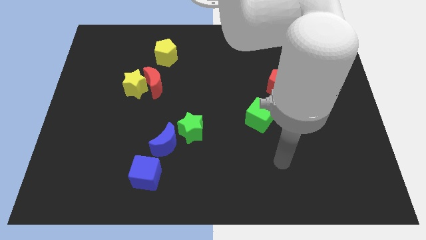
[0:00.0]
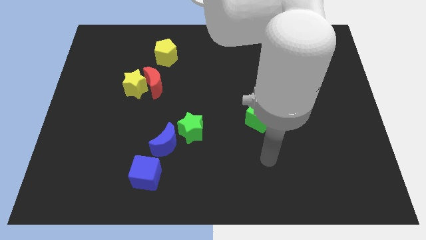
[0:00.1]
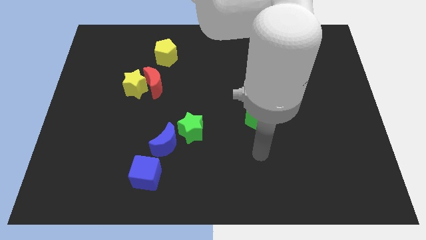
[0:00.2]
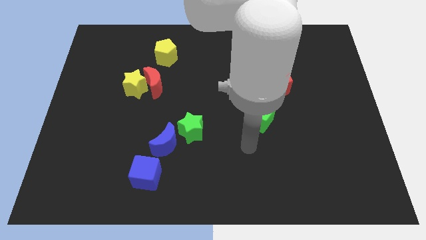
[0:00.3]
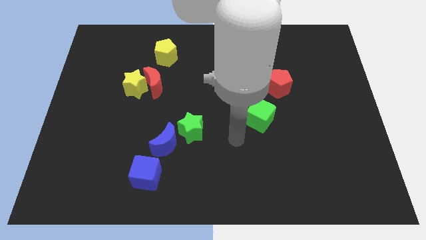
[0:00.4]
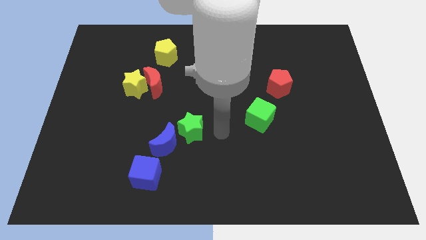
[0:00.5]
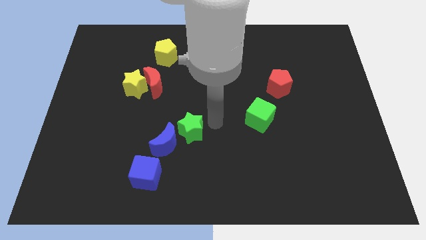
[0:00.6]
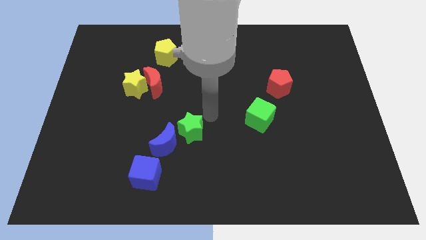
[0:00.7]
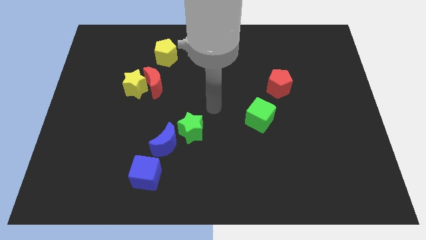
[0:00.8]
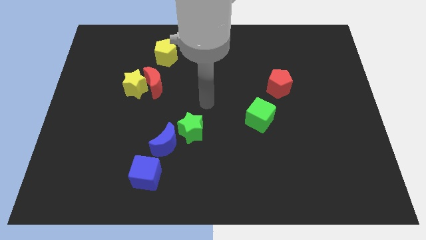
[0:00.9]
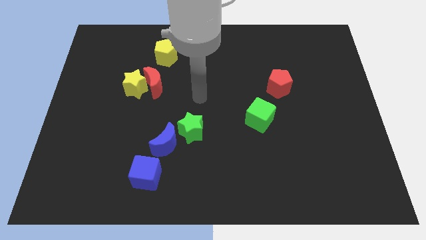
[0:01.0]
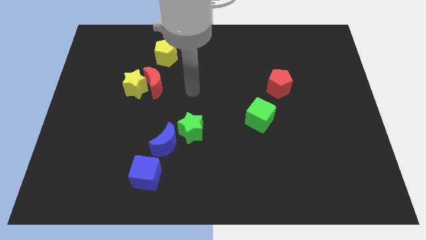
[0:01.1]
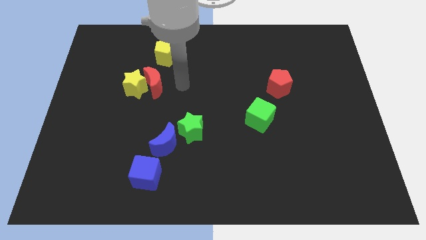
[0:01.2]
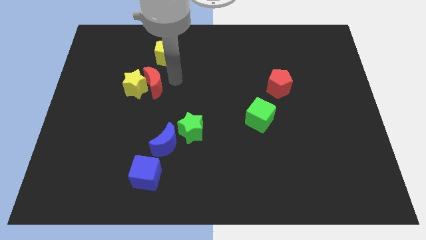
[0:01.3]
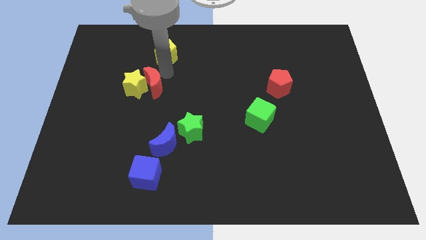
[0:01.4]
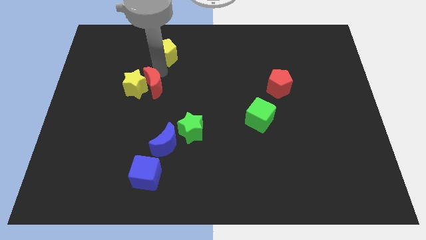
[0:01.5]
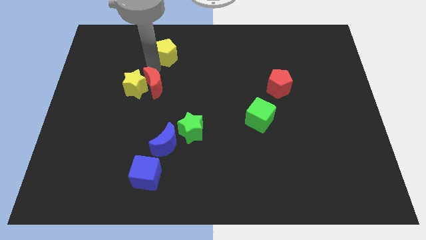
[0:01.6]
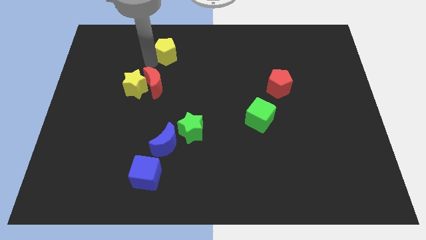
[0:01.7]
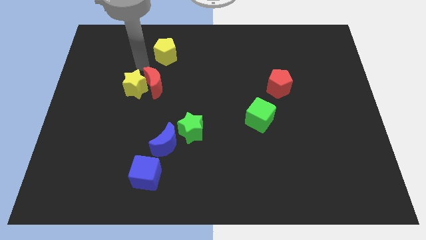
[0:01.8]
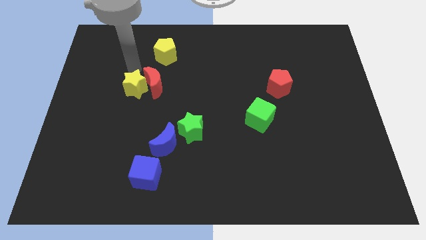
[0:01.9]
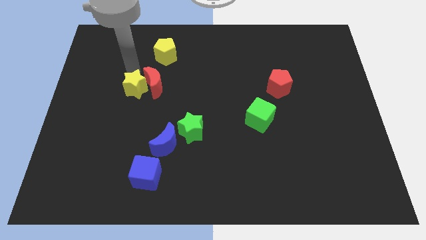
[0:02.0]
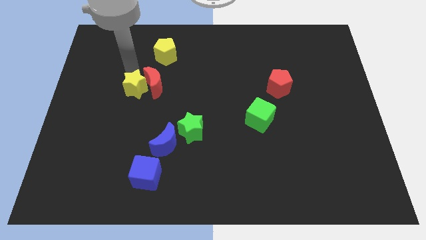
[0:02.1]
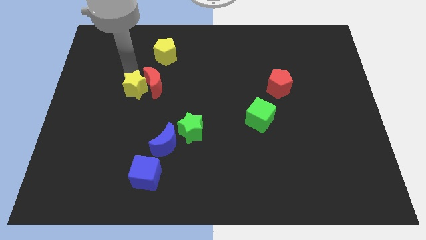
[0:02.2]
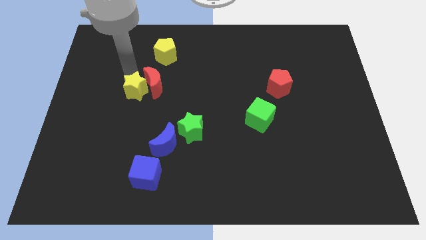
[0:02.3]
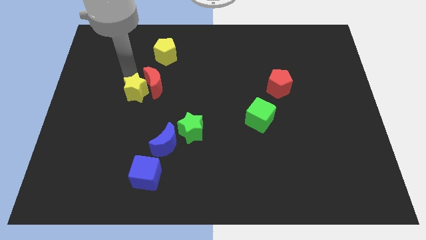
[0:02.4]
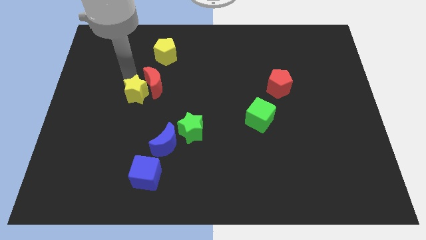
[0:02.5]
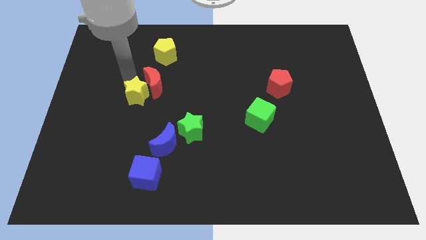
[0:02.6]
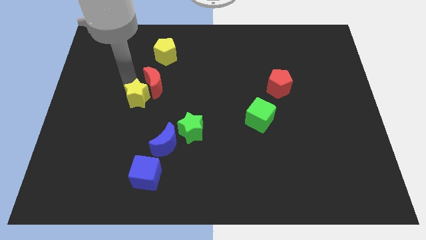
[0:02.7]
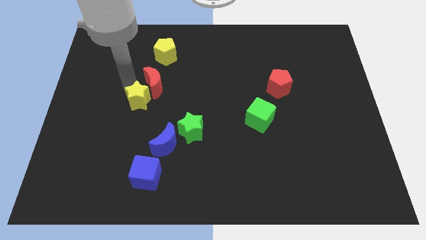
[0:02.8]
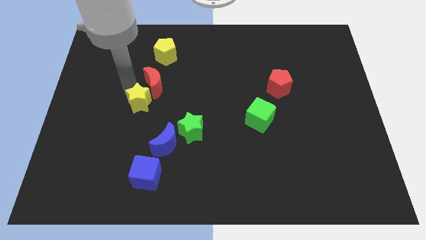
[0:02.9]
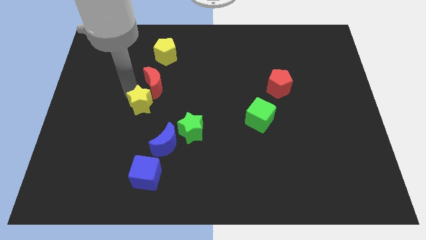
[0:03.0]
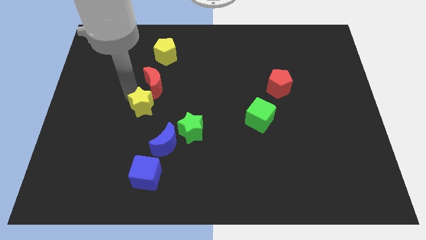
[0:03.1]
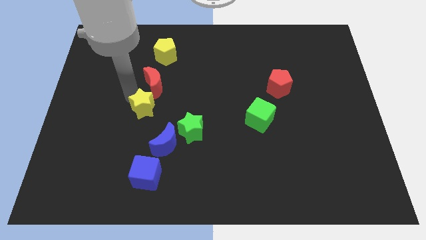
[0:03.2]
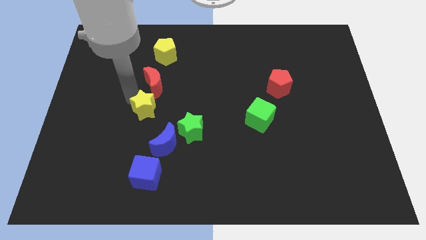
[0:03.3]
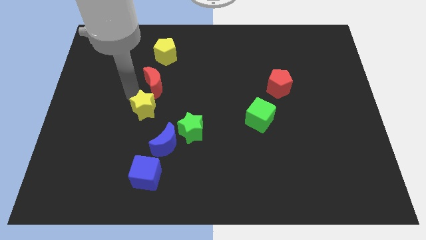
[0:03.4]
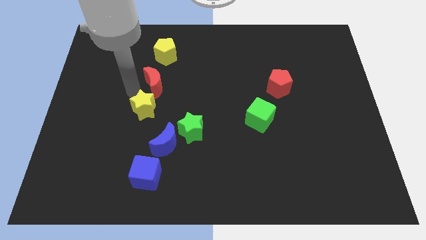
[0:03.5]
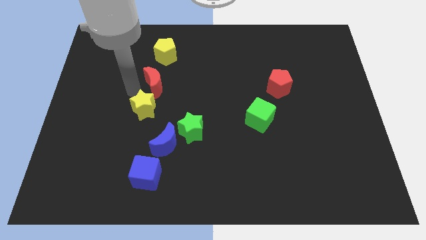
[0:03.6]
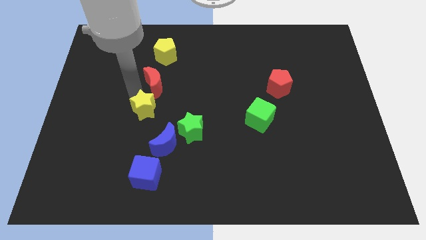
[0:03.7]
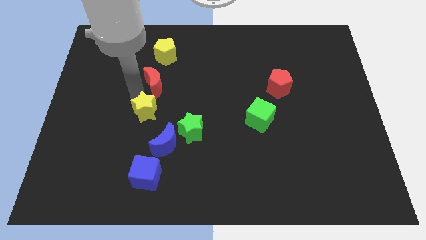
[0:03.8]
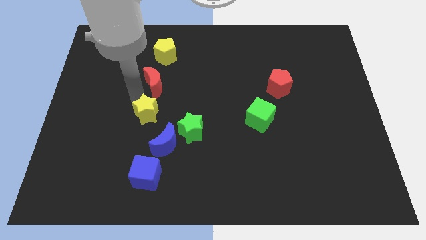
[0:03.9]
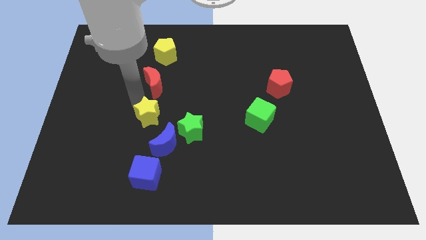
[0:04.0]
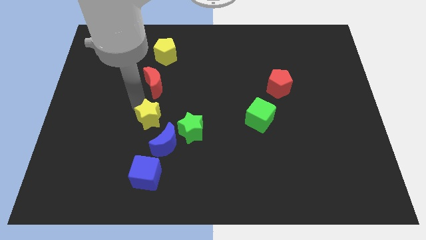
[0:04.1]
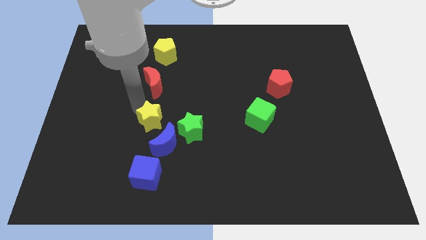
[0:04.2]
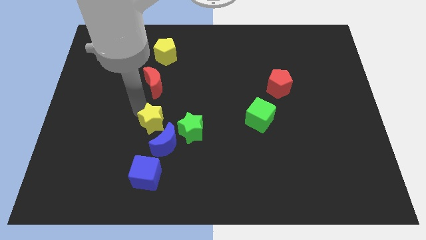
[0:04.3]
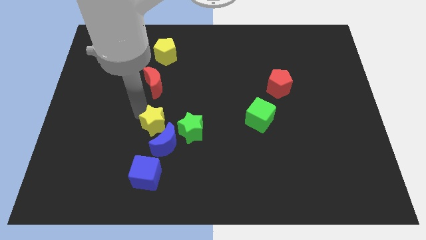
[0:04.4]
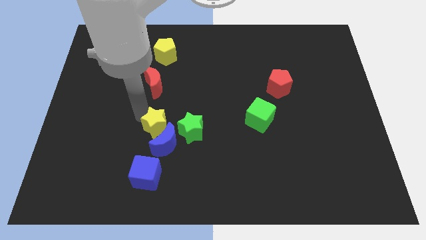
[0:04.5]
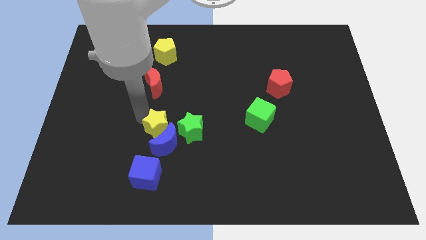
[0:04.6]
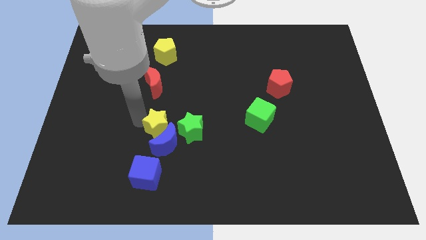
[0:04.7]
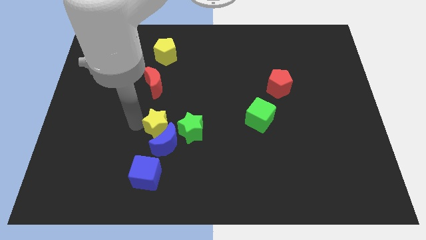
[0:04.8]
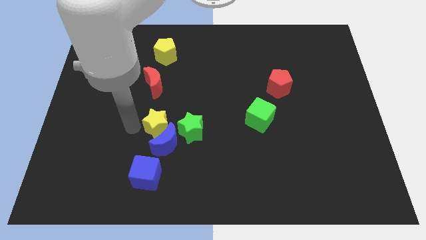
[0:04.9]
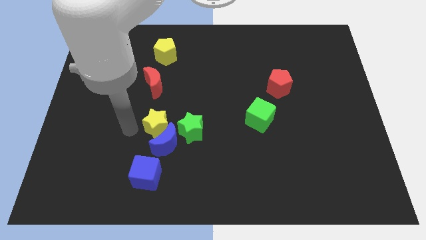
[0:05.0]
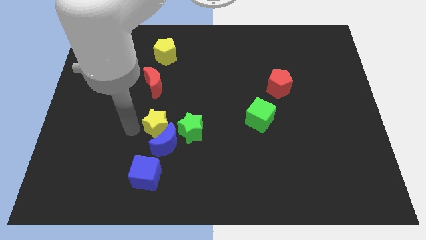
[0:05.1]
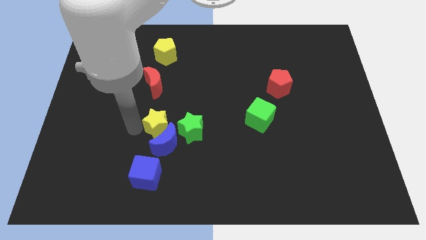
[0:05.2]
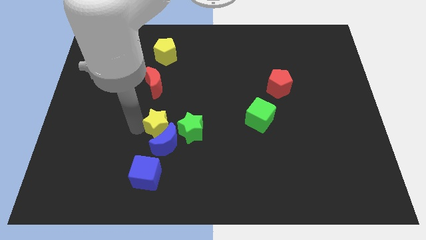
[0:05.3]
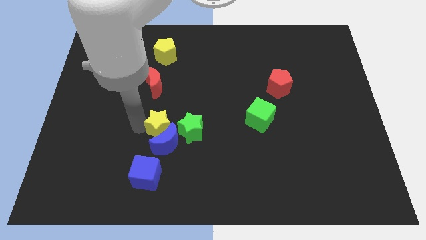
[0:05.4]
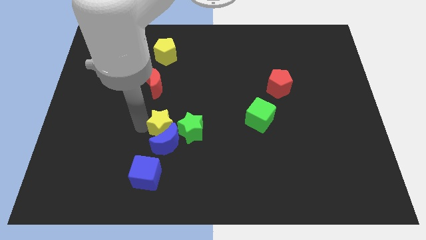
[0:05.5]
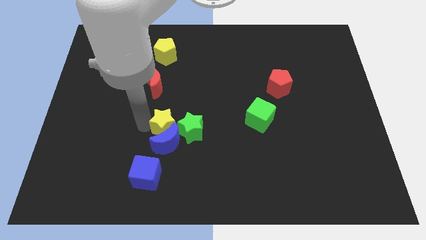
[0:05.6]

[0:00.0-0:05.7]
push the yellow star towards the green star
